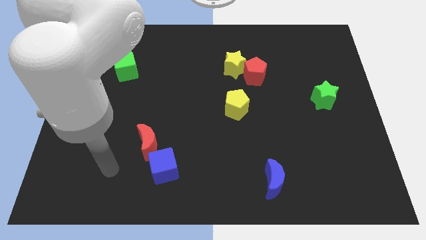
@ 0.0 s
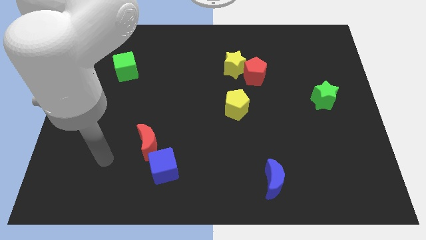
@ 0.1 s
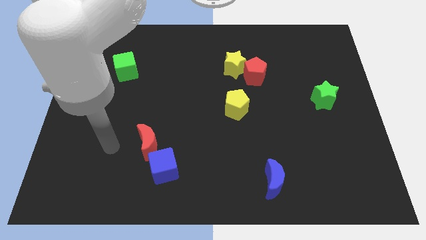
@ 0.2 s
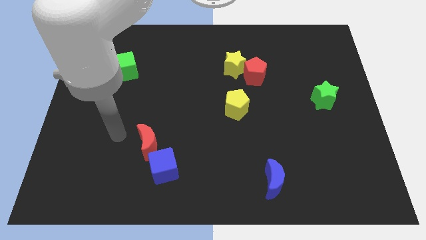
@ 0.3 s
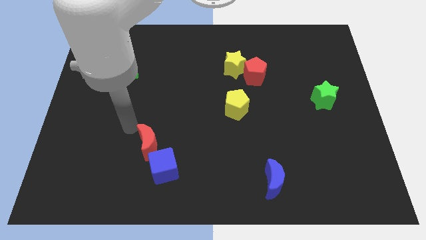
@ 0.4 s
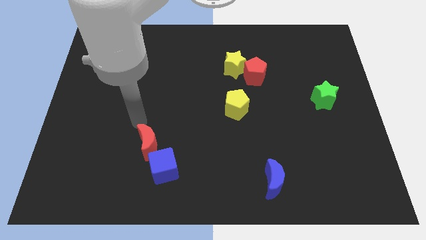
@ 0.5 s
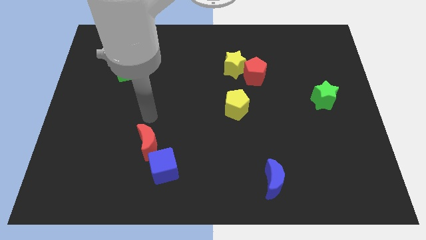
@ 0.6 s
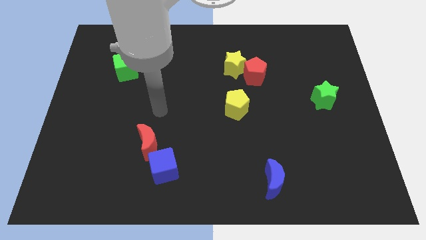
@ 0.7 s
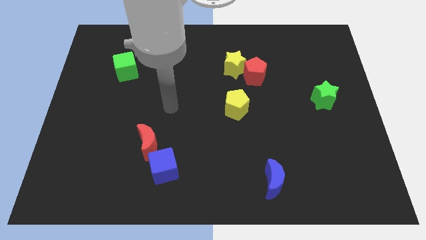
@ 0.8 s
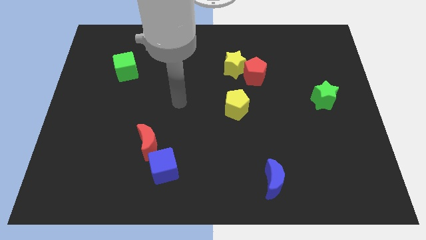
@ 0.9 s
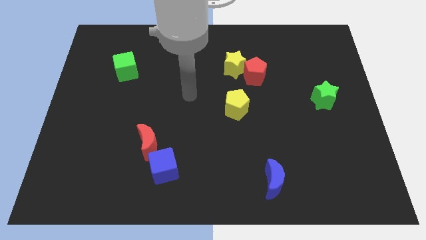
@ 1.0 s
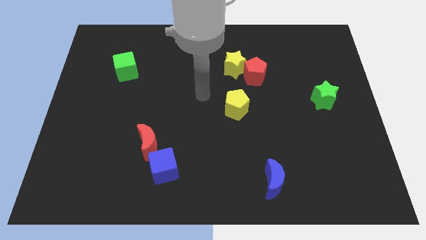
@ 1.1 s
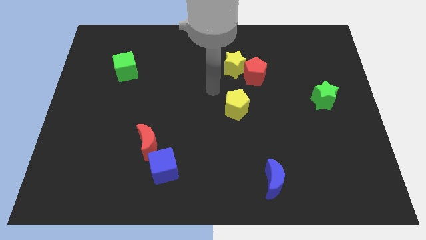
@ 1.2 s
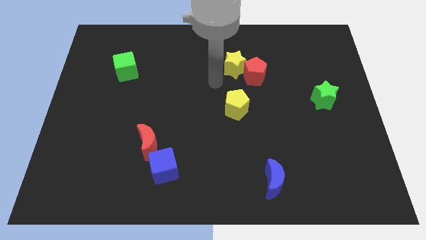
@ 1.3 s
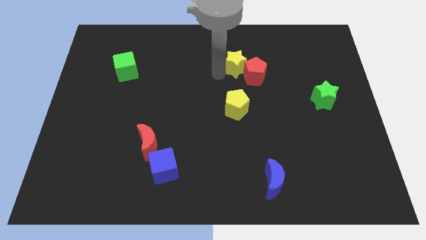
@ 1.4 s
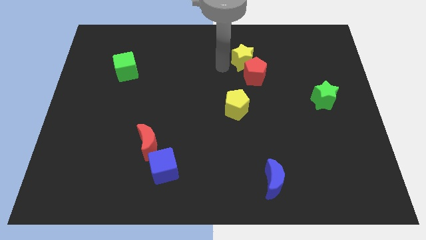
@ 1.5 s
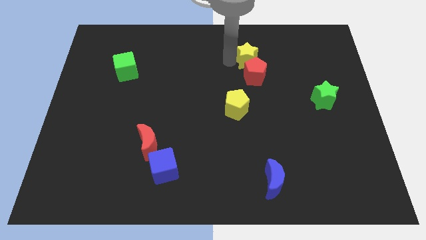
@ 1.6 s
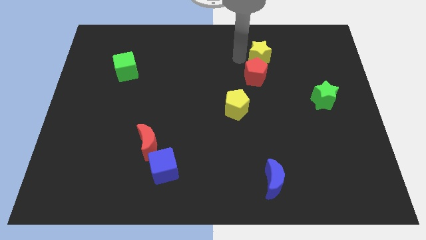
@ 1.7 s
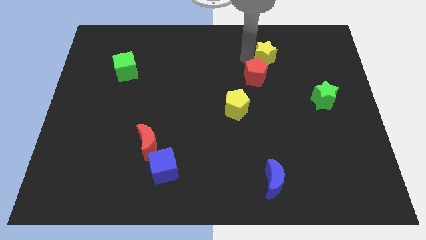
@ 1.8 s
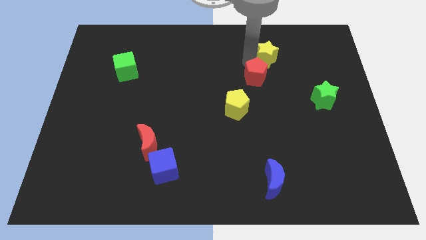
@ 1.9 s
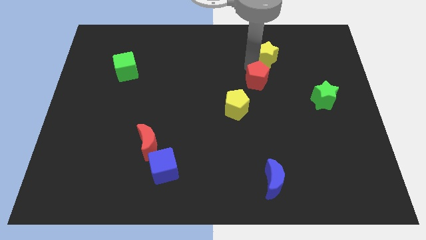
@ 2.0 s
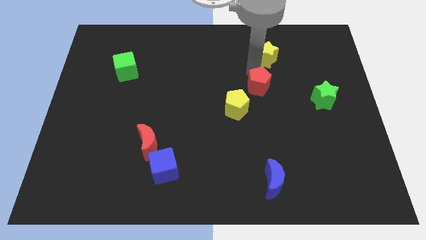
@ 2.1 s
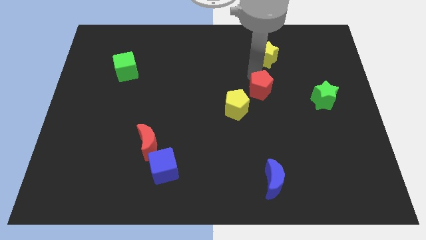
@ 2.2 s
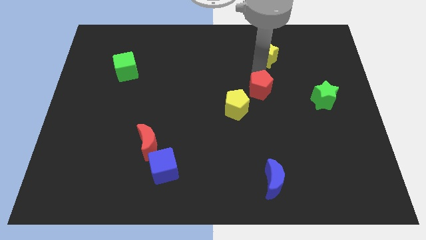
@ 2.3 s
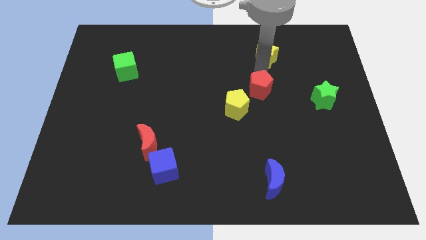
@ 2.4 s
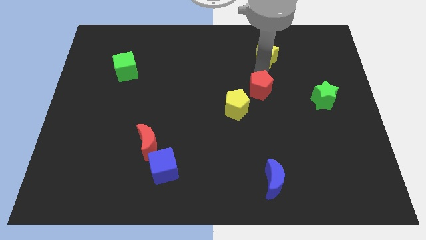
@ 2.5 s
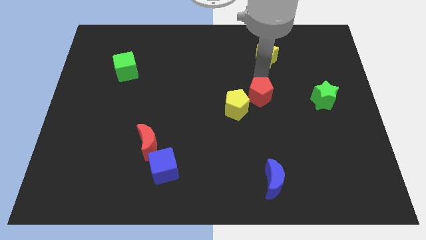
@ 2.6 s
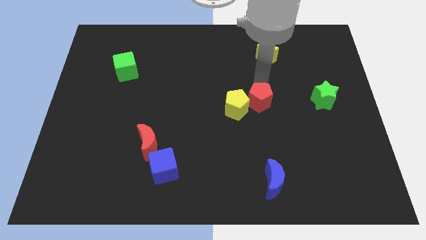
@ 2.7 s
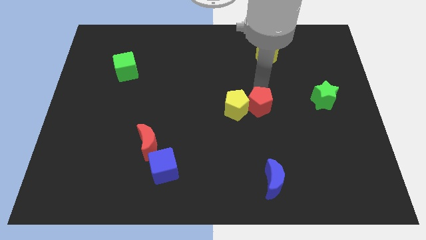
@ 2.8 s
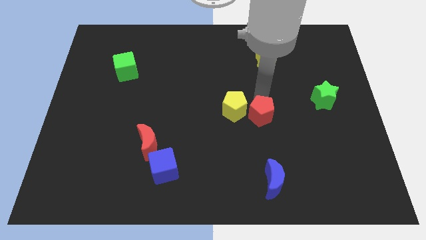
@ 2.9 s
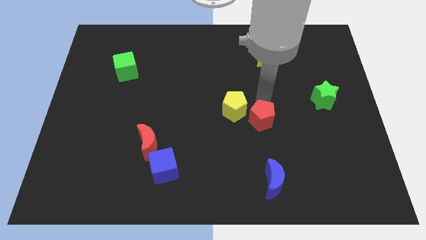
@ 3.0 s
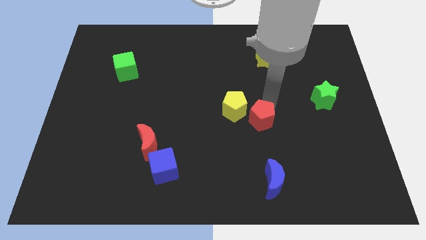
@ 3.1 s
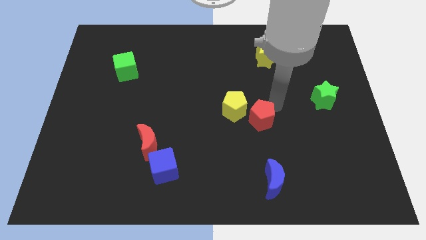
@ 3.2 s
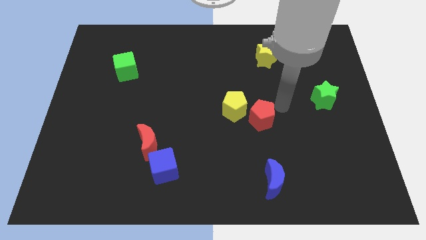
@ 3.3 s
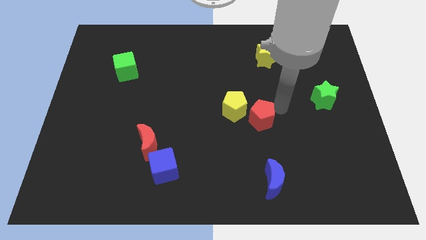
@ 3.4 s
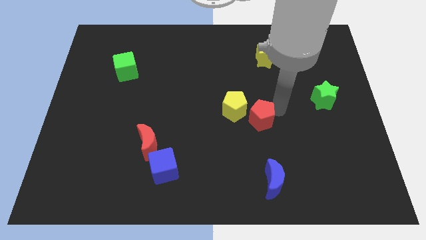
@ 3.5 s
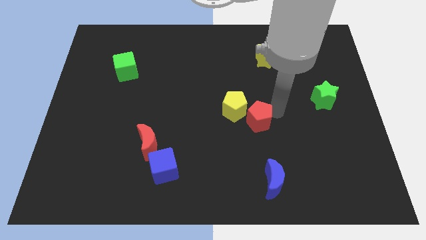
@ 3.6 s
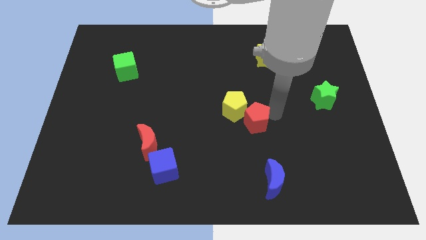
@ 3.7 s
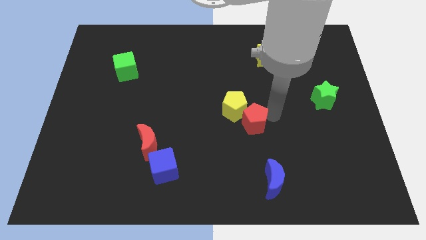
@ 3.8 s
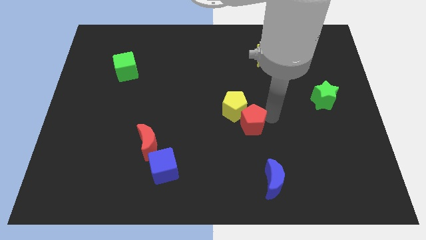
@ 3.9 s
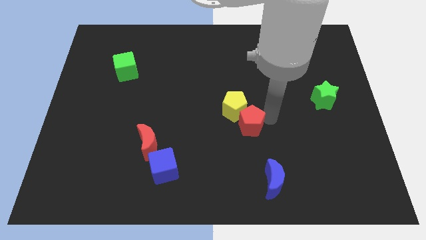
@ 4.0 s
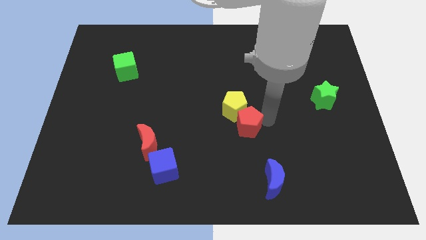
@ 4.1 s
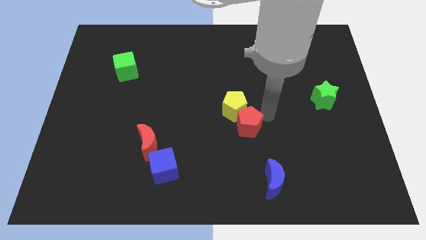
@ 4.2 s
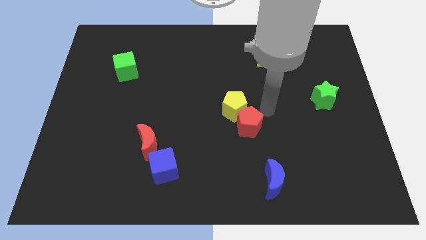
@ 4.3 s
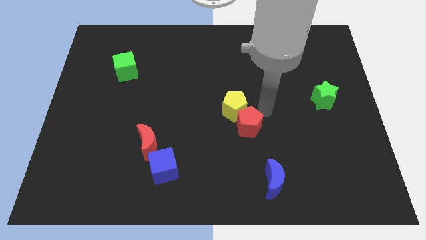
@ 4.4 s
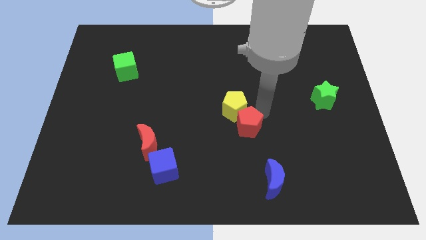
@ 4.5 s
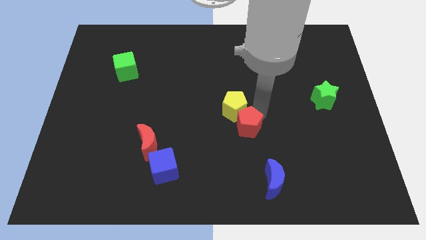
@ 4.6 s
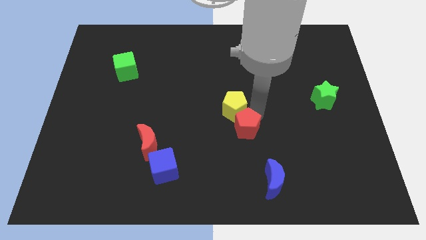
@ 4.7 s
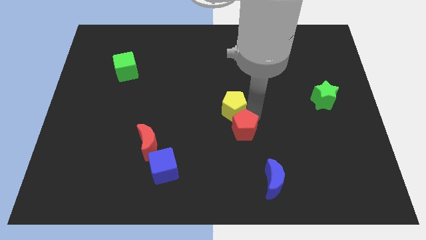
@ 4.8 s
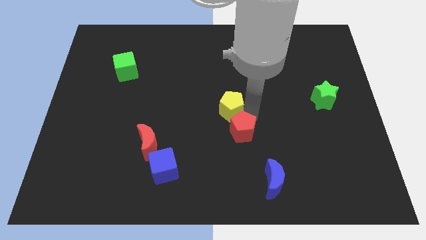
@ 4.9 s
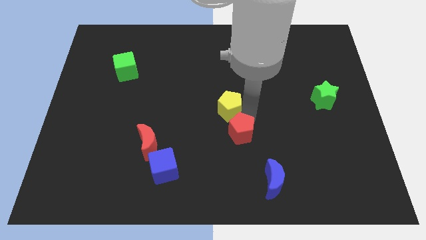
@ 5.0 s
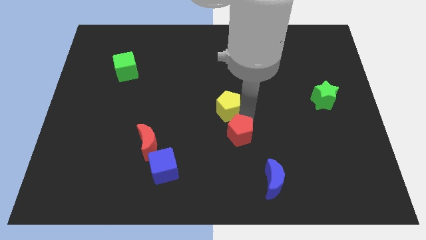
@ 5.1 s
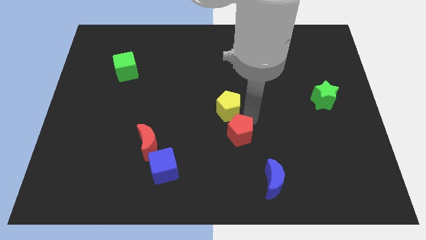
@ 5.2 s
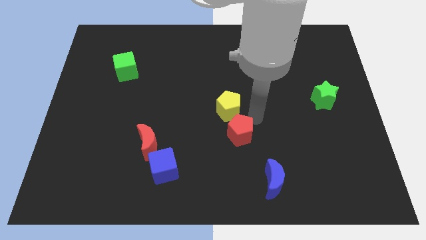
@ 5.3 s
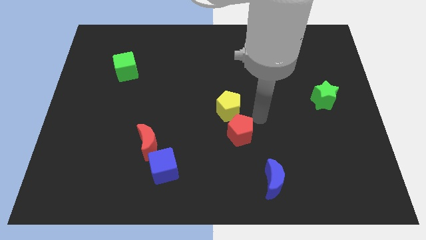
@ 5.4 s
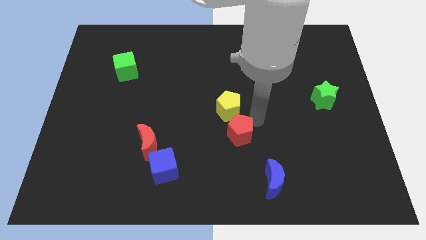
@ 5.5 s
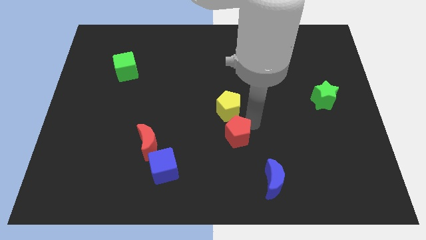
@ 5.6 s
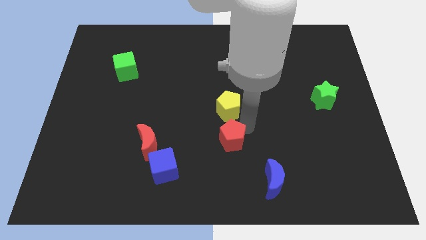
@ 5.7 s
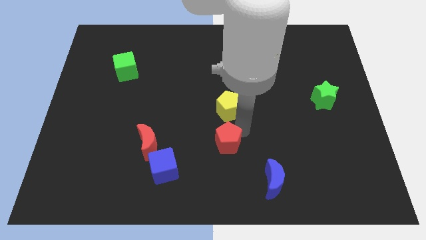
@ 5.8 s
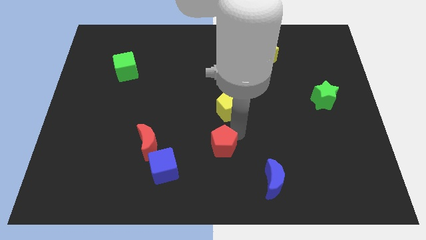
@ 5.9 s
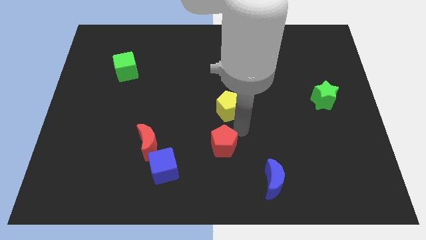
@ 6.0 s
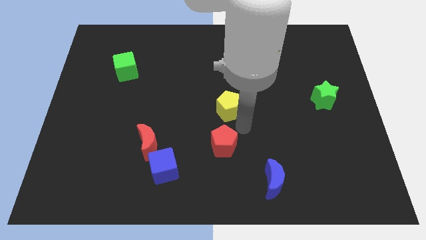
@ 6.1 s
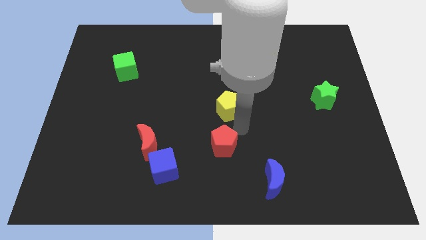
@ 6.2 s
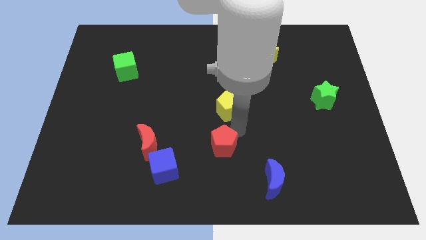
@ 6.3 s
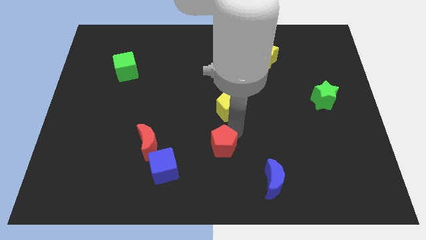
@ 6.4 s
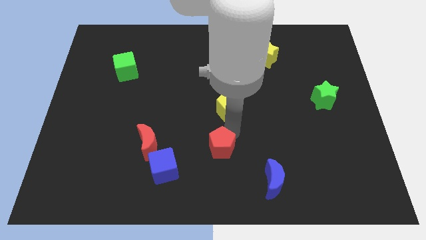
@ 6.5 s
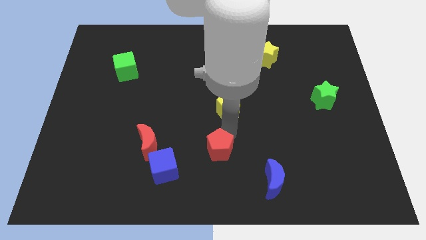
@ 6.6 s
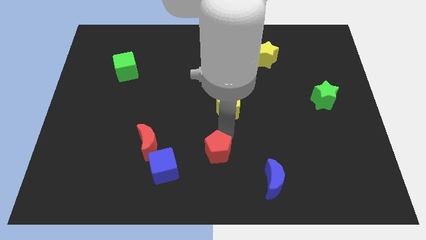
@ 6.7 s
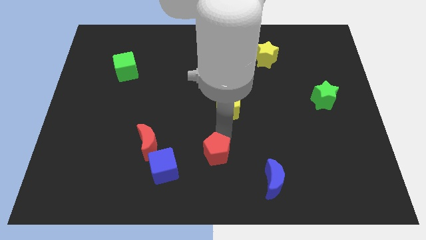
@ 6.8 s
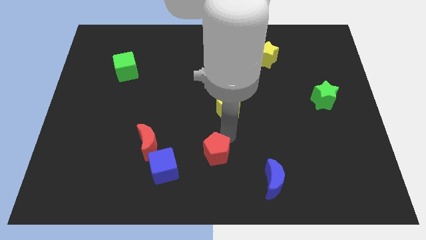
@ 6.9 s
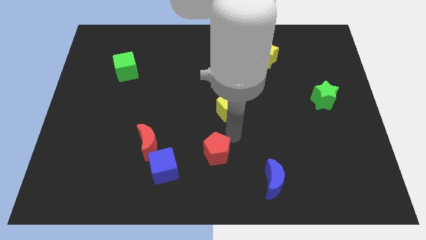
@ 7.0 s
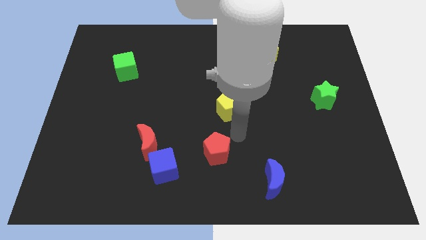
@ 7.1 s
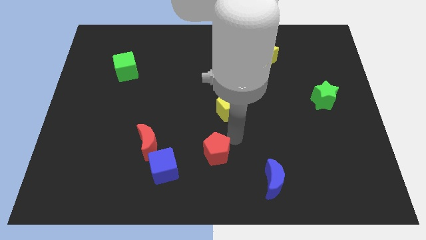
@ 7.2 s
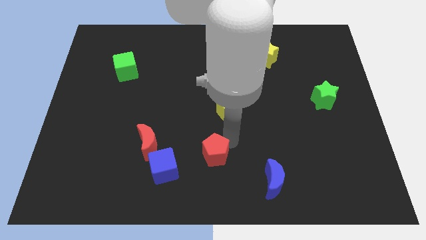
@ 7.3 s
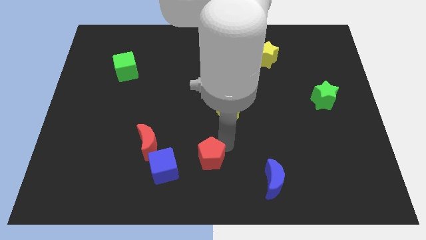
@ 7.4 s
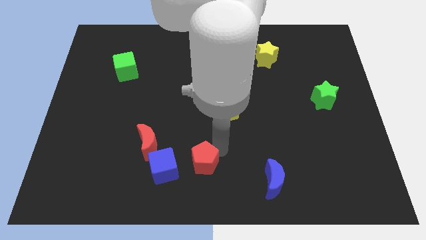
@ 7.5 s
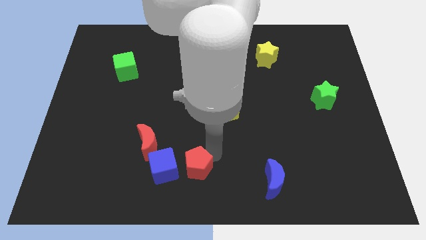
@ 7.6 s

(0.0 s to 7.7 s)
move the red pentagon to the bottom right of the red moon
